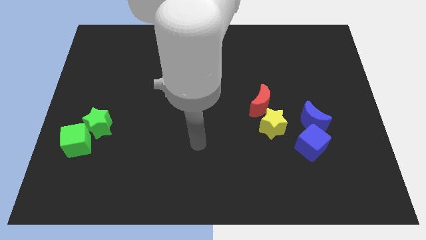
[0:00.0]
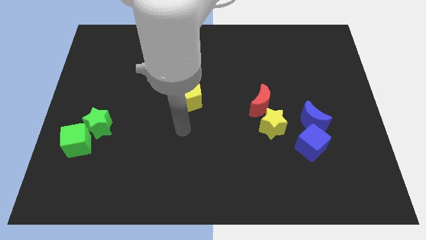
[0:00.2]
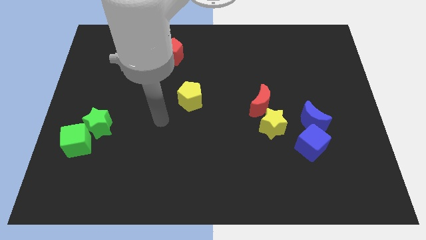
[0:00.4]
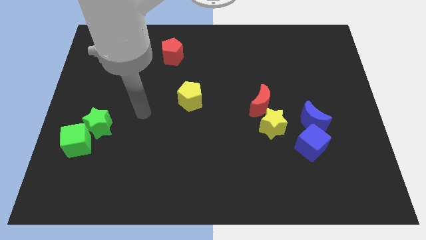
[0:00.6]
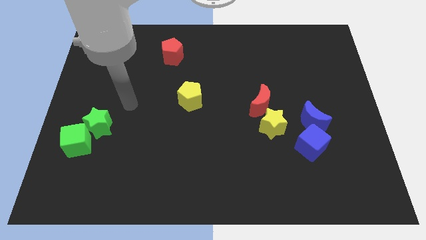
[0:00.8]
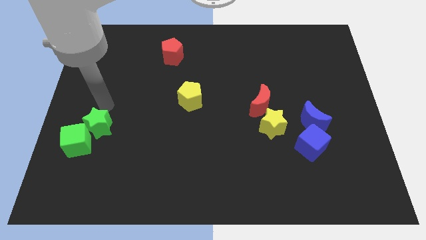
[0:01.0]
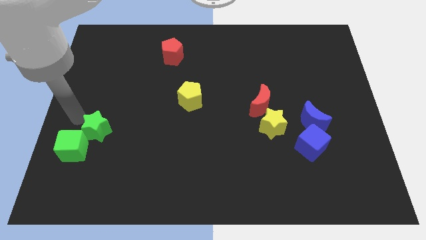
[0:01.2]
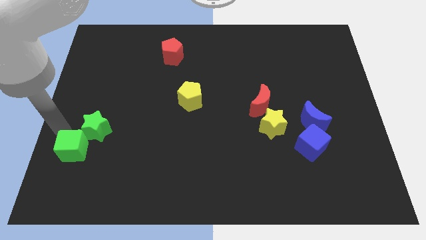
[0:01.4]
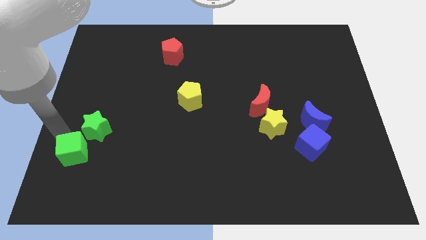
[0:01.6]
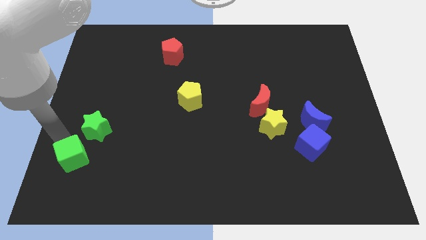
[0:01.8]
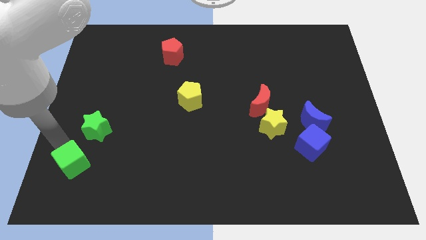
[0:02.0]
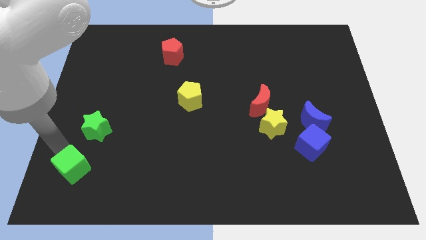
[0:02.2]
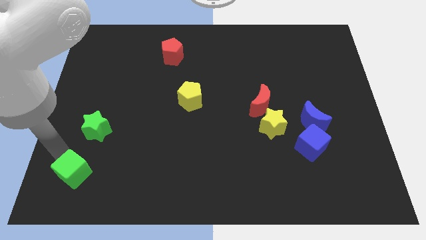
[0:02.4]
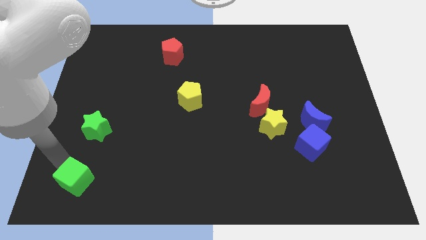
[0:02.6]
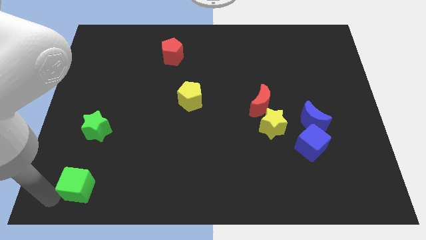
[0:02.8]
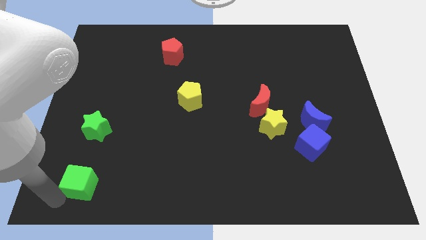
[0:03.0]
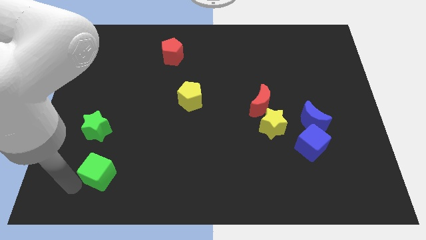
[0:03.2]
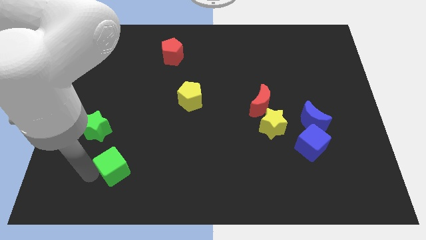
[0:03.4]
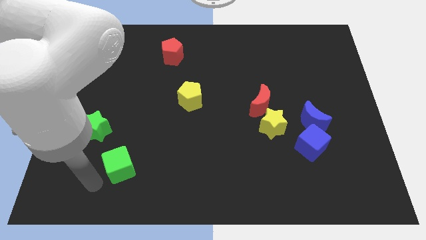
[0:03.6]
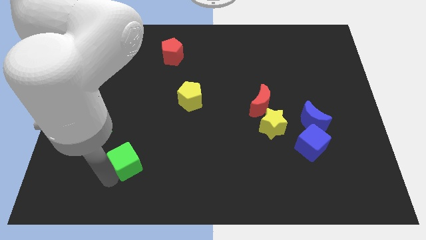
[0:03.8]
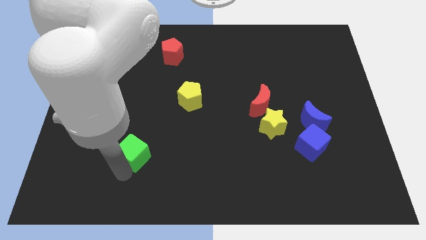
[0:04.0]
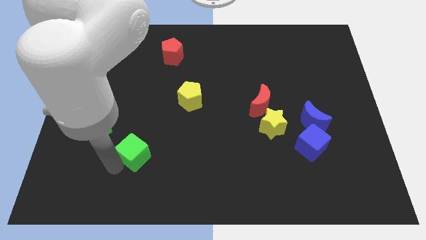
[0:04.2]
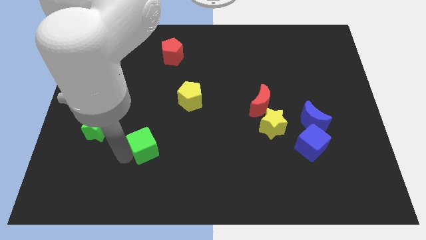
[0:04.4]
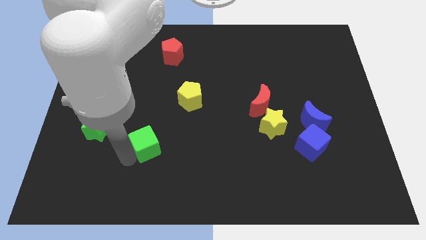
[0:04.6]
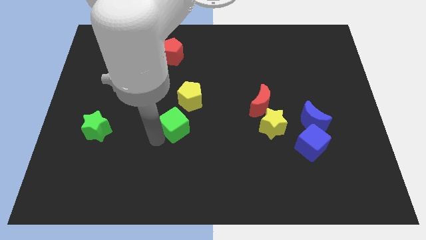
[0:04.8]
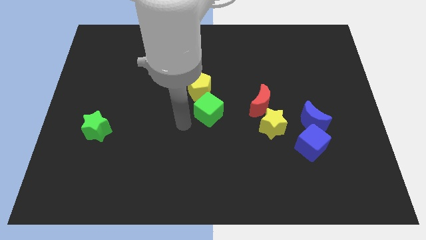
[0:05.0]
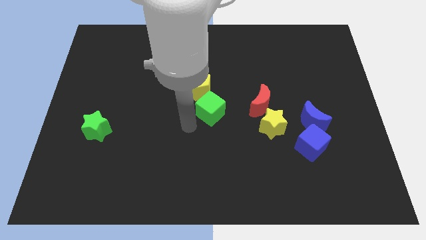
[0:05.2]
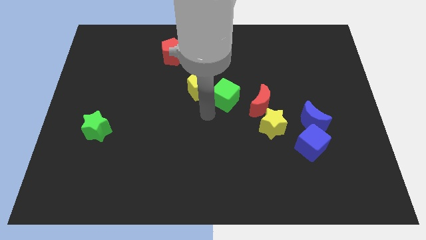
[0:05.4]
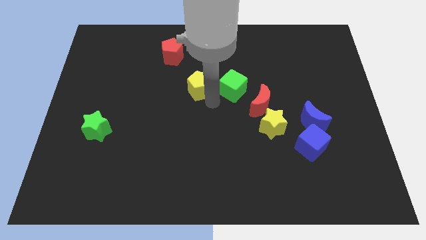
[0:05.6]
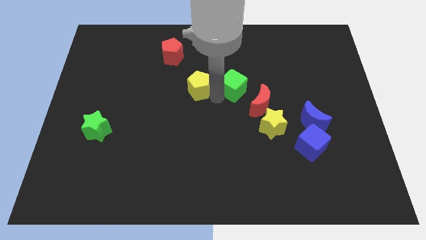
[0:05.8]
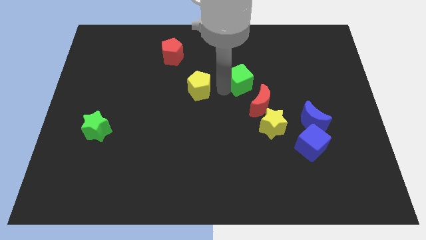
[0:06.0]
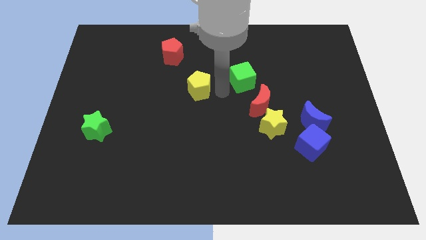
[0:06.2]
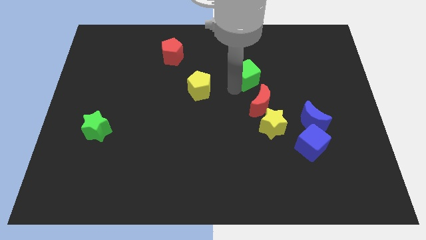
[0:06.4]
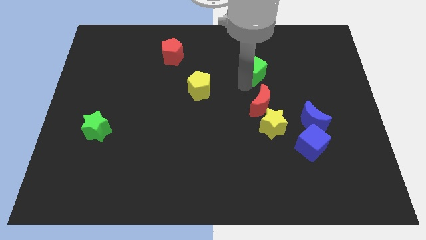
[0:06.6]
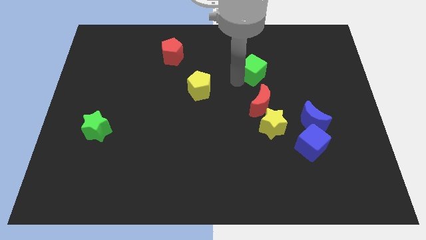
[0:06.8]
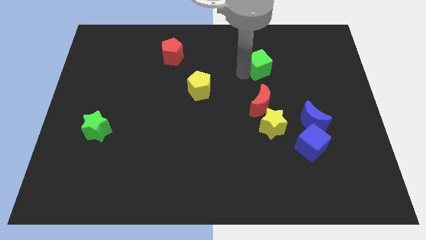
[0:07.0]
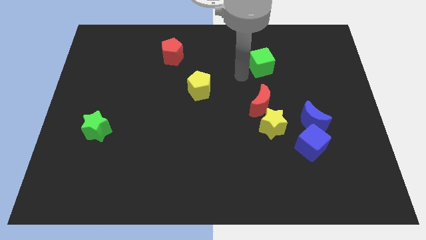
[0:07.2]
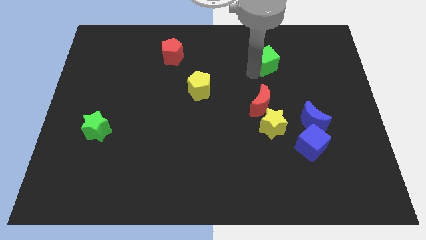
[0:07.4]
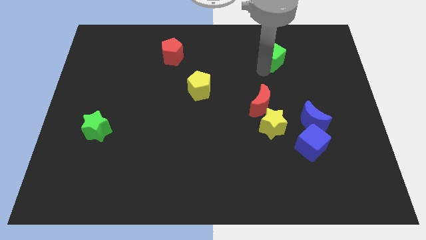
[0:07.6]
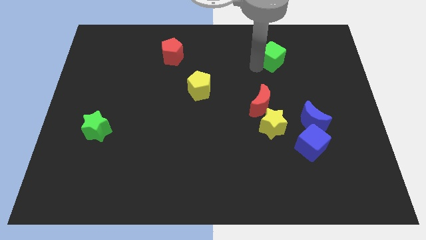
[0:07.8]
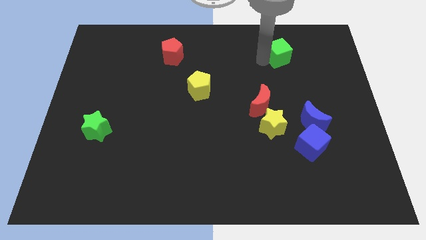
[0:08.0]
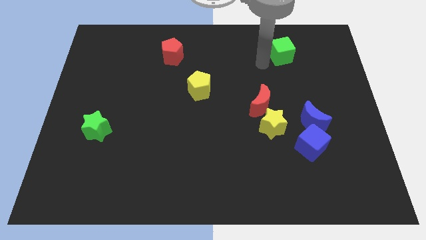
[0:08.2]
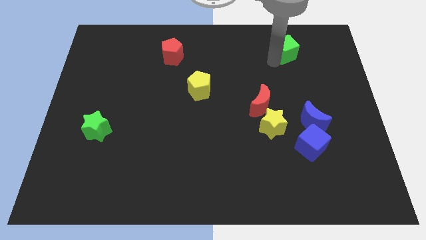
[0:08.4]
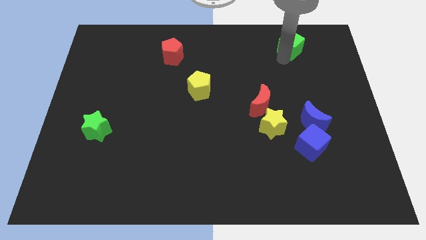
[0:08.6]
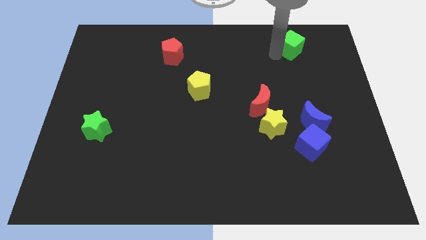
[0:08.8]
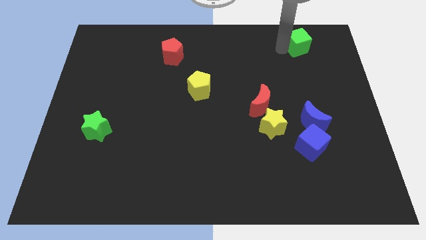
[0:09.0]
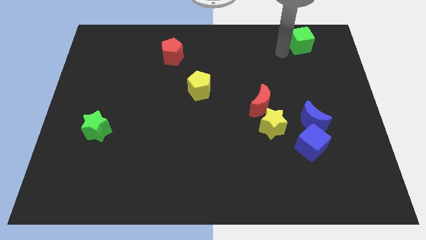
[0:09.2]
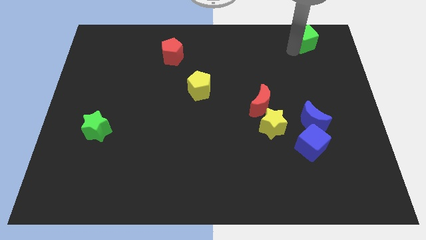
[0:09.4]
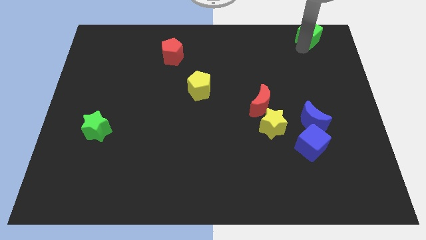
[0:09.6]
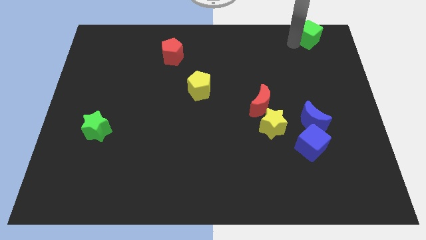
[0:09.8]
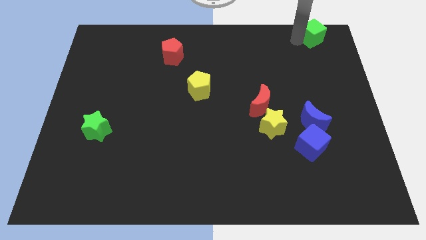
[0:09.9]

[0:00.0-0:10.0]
move the green cube to the top right corner

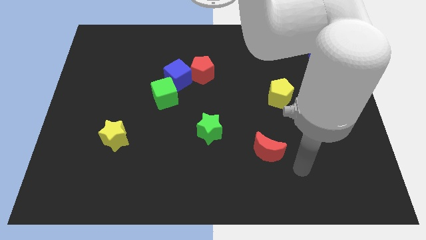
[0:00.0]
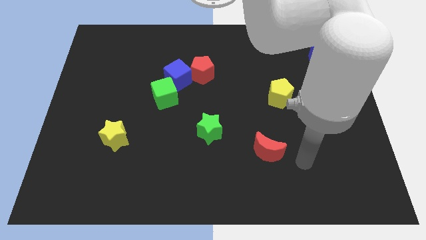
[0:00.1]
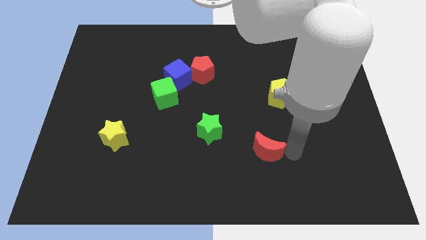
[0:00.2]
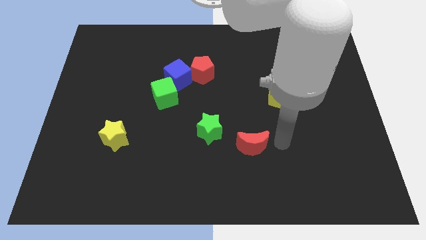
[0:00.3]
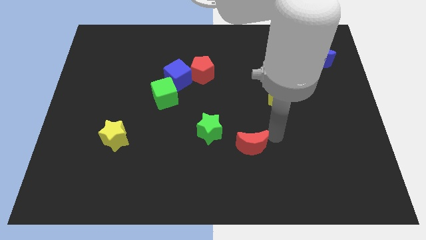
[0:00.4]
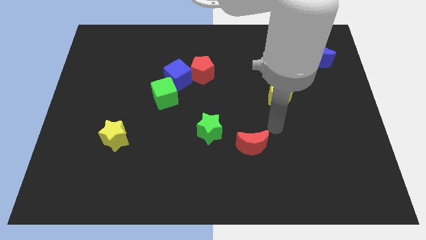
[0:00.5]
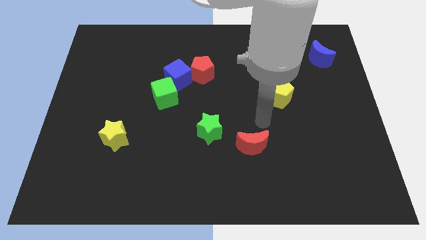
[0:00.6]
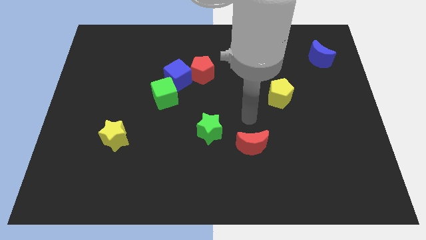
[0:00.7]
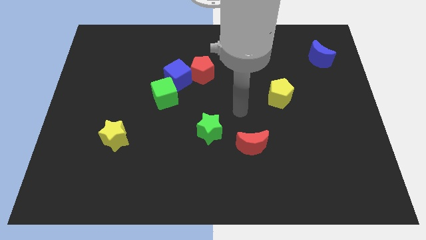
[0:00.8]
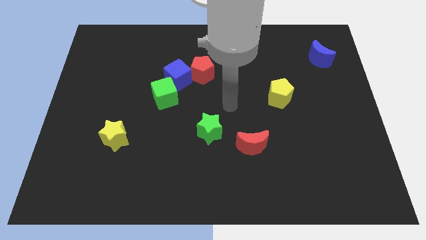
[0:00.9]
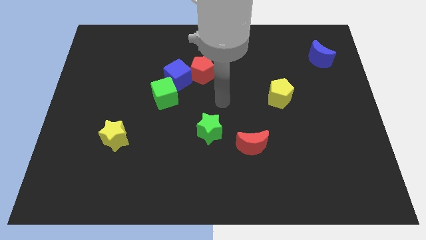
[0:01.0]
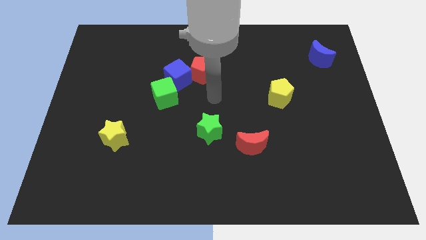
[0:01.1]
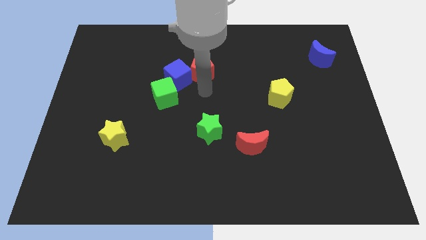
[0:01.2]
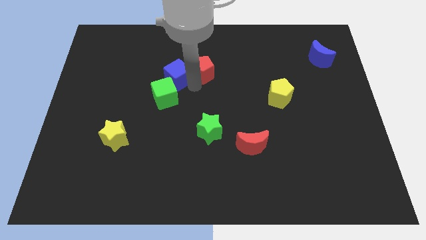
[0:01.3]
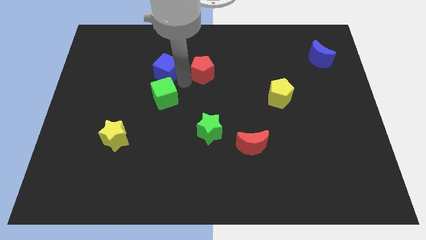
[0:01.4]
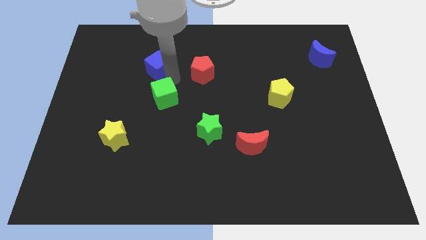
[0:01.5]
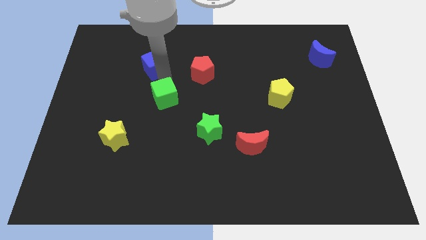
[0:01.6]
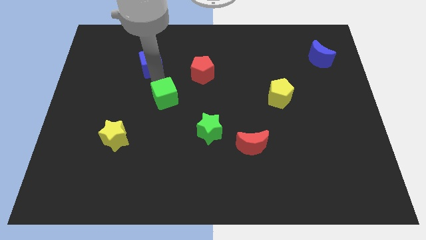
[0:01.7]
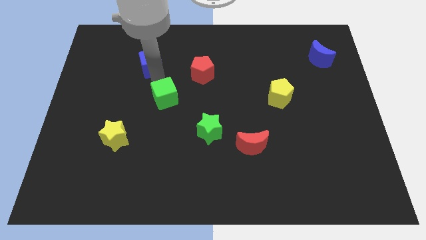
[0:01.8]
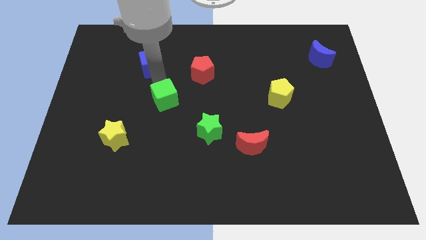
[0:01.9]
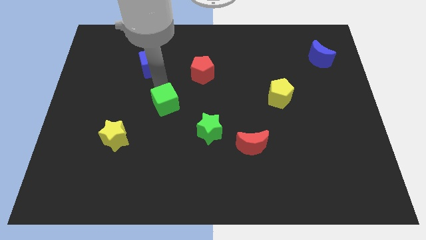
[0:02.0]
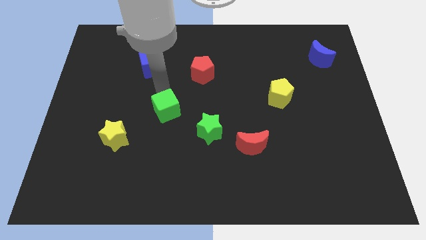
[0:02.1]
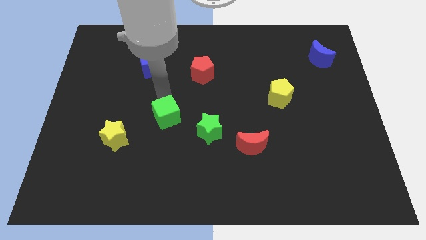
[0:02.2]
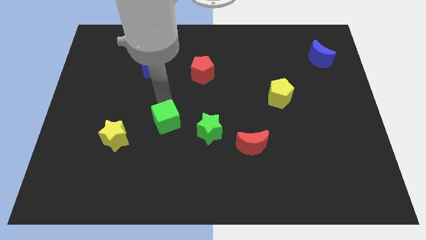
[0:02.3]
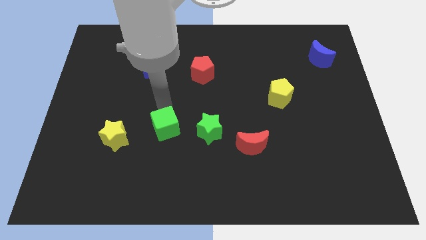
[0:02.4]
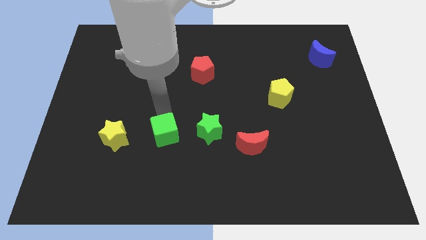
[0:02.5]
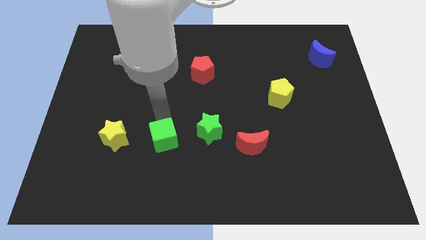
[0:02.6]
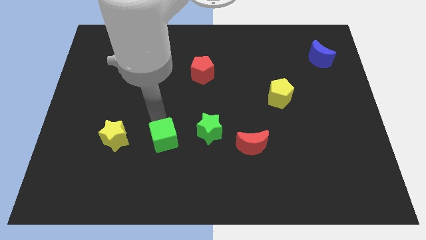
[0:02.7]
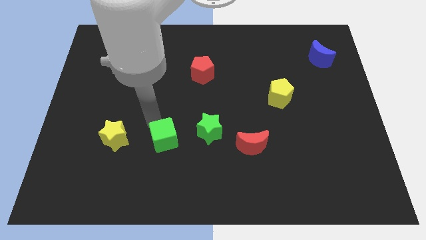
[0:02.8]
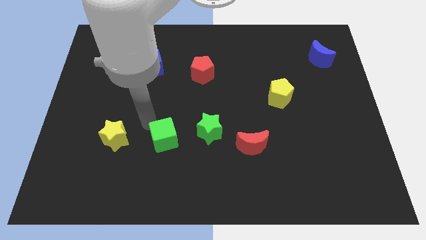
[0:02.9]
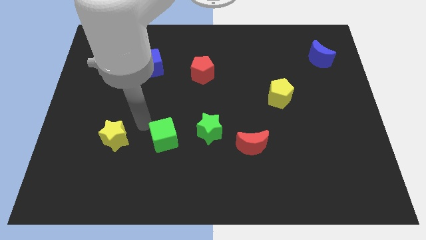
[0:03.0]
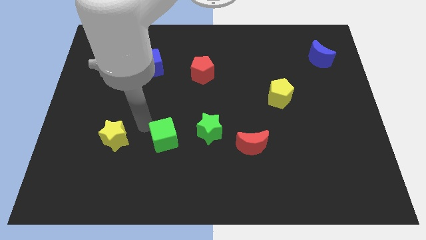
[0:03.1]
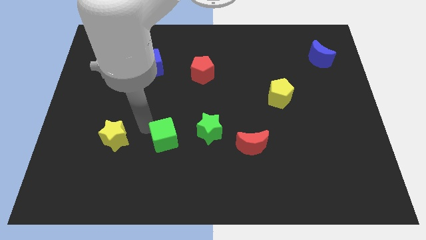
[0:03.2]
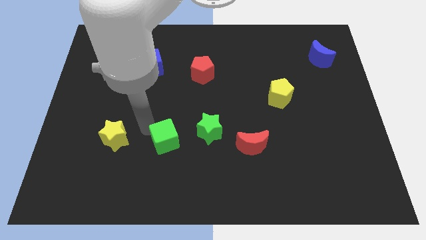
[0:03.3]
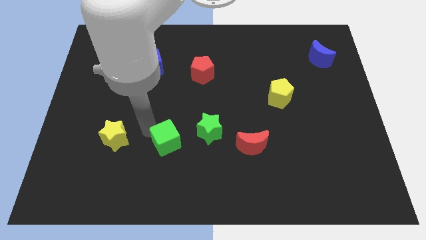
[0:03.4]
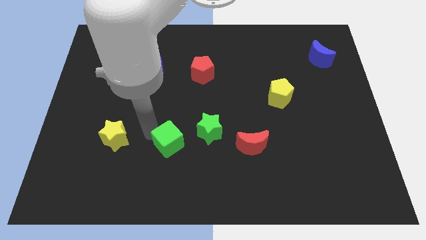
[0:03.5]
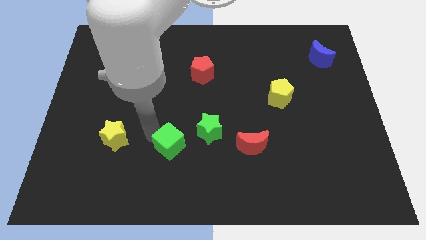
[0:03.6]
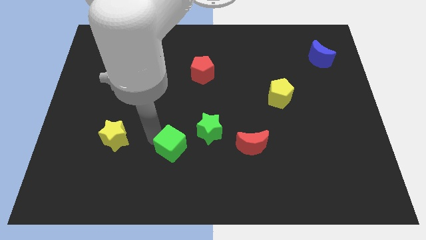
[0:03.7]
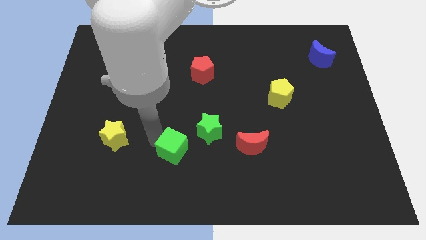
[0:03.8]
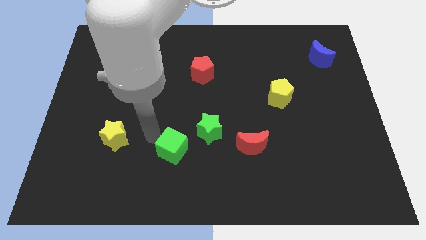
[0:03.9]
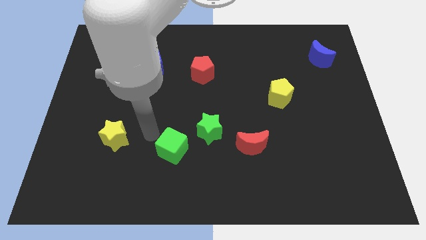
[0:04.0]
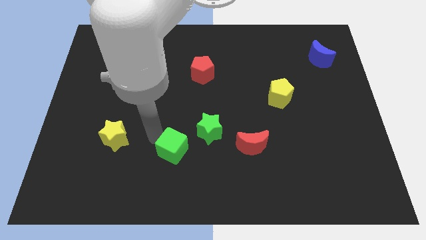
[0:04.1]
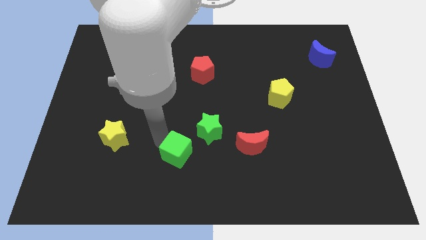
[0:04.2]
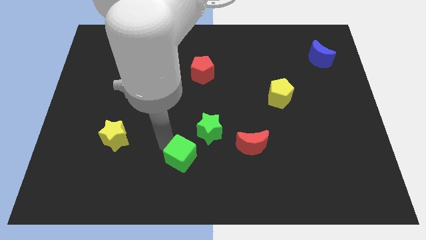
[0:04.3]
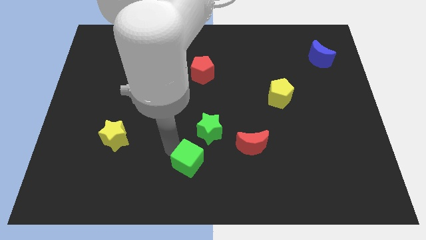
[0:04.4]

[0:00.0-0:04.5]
push the green cube to the bottom
